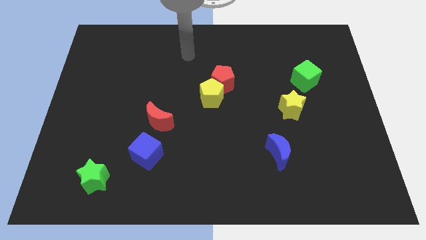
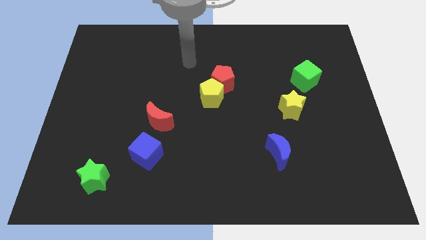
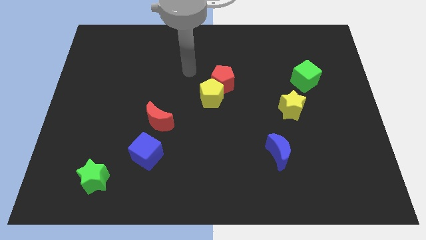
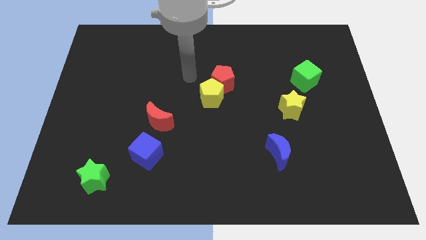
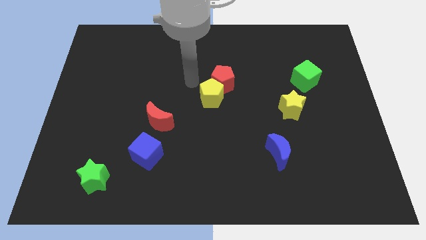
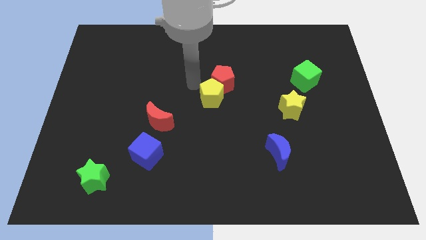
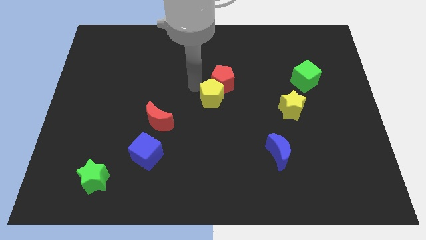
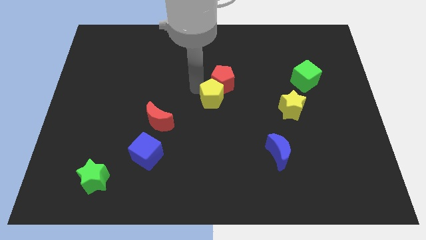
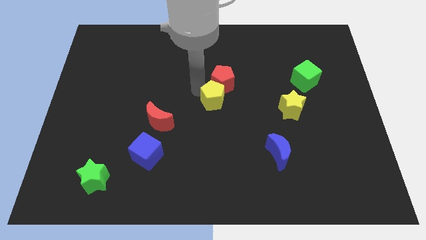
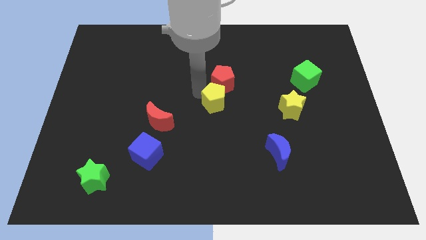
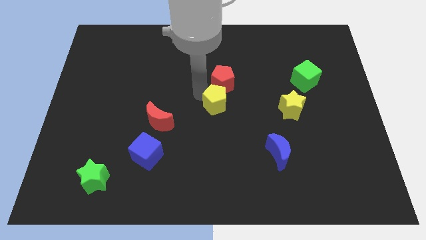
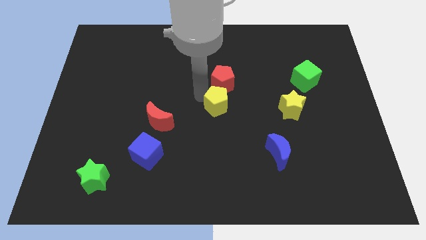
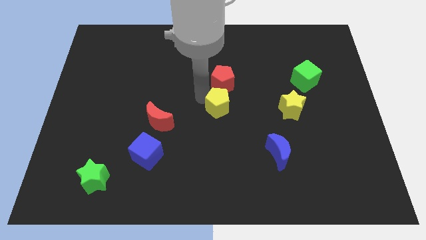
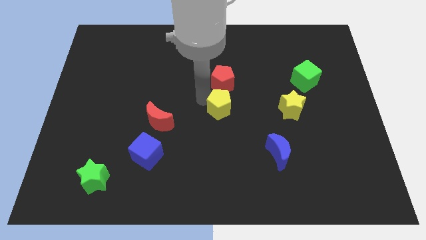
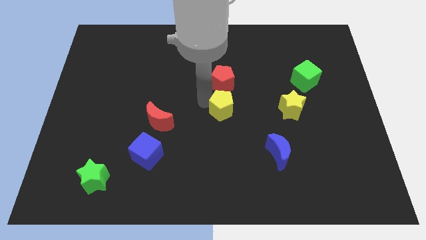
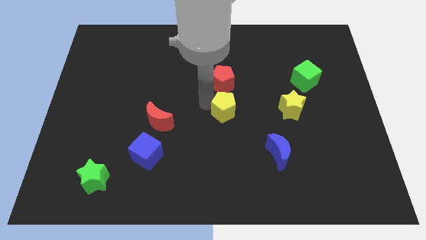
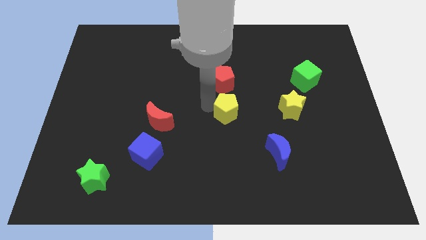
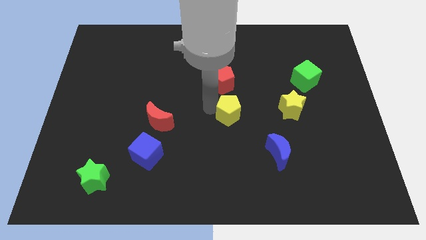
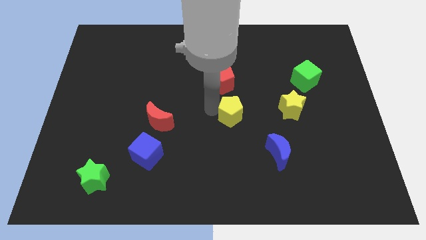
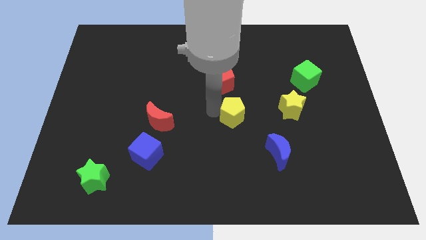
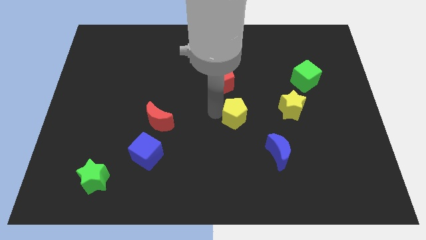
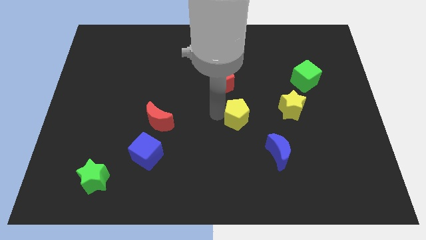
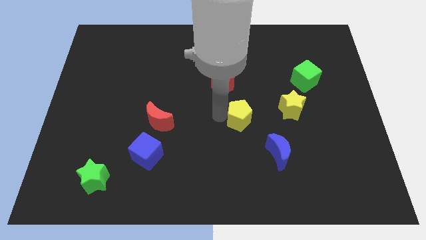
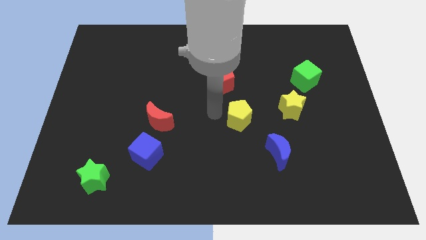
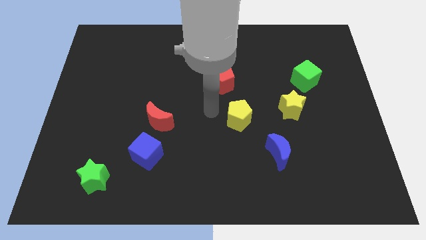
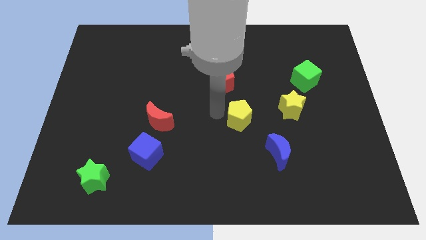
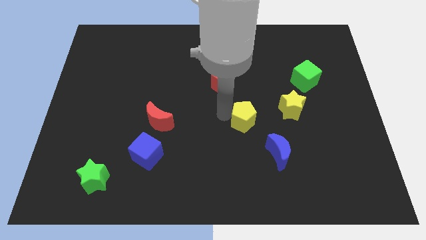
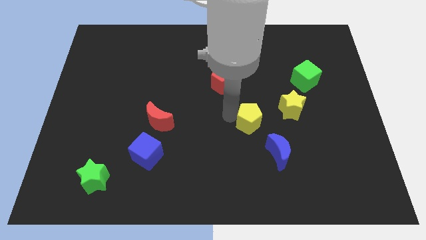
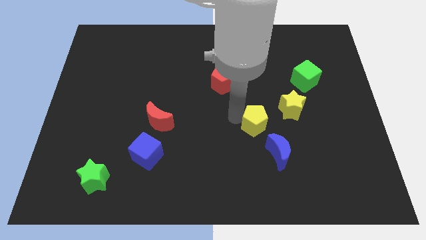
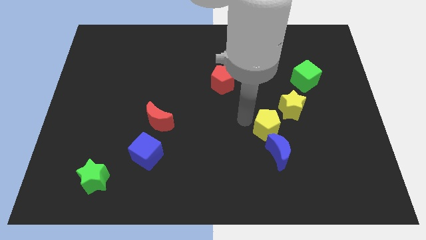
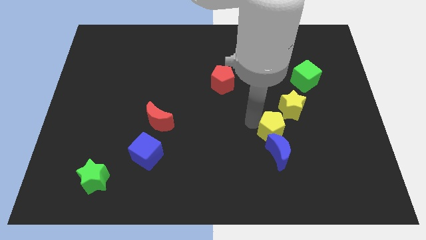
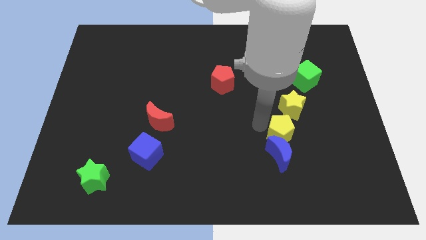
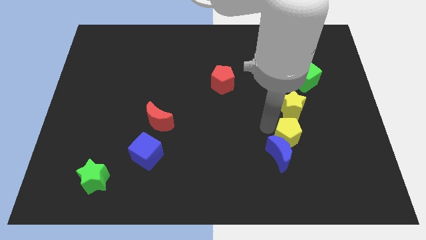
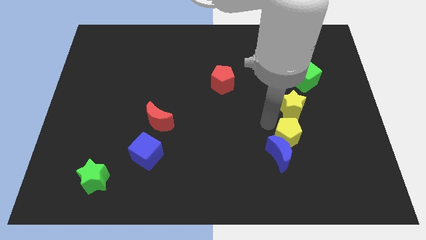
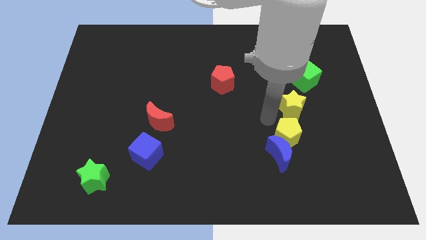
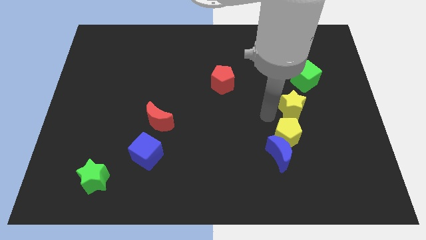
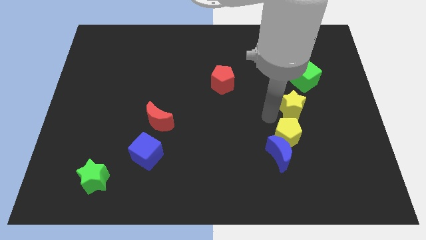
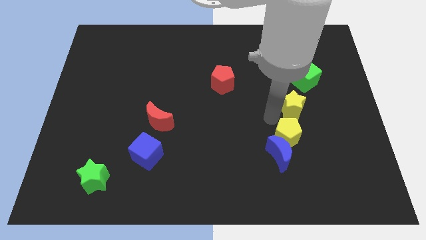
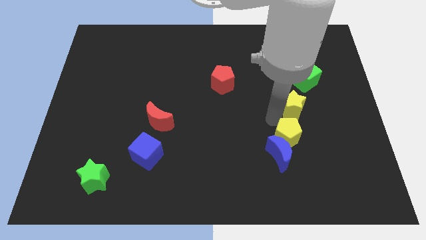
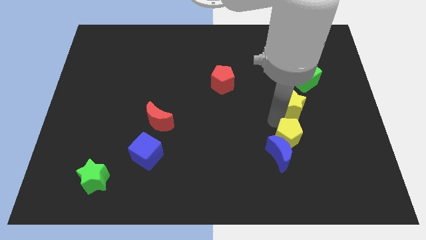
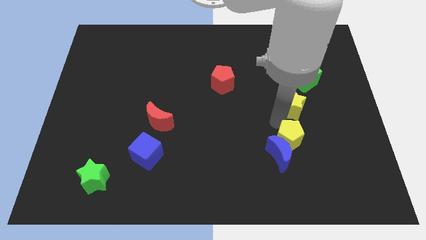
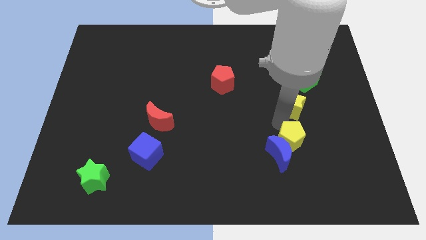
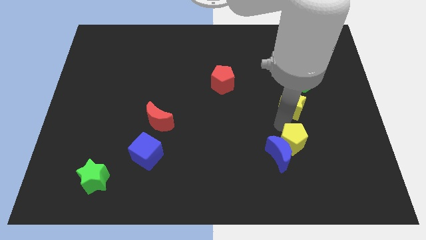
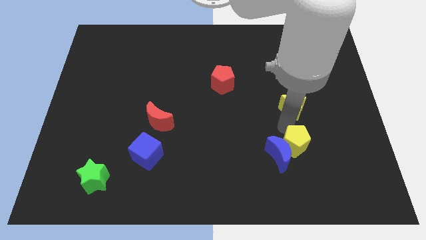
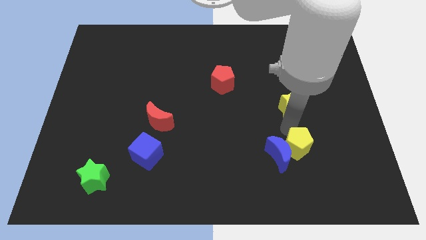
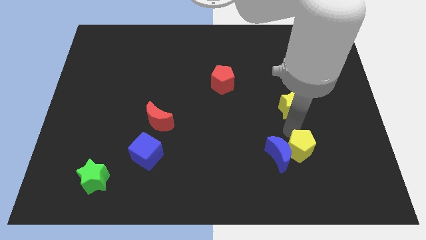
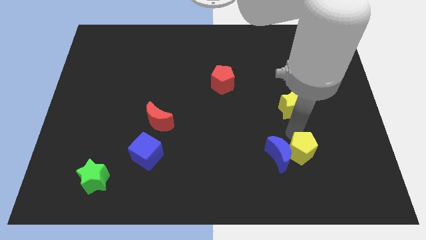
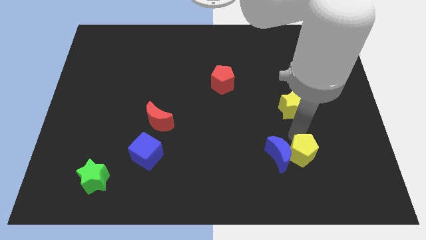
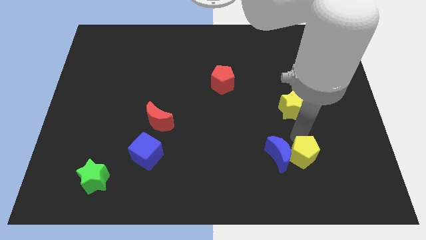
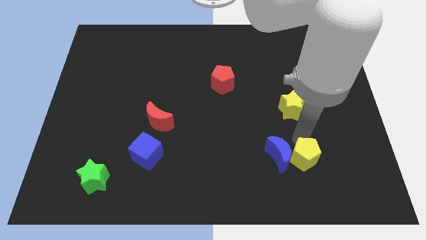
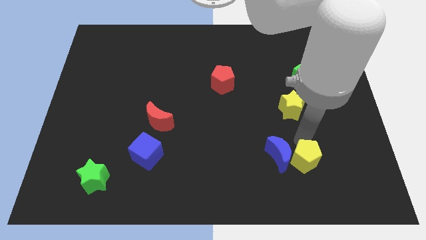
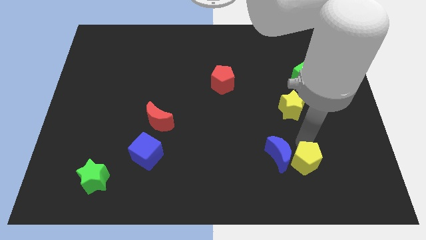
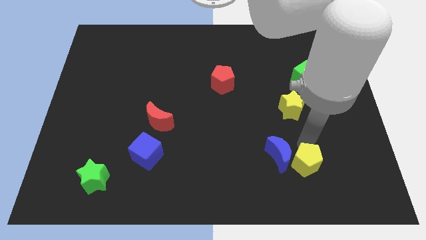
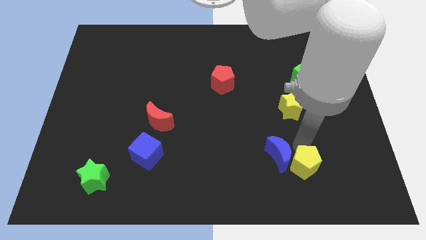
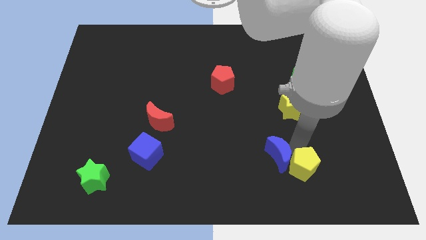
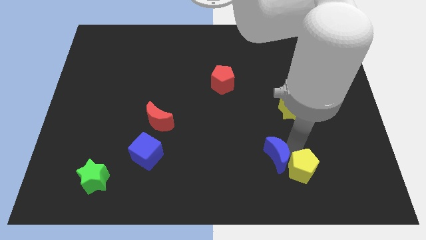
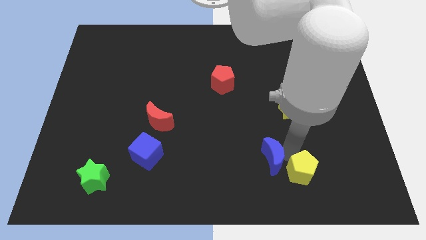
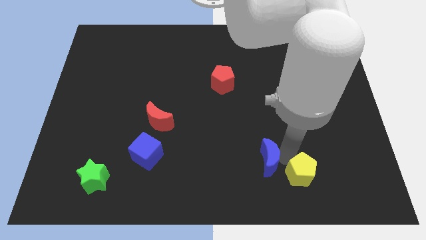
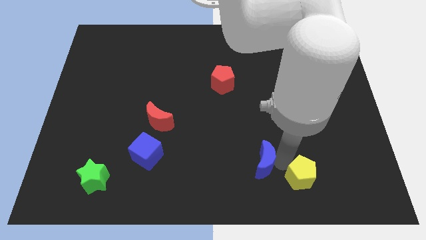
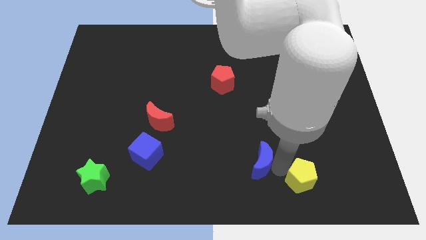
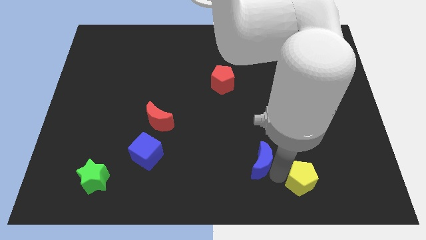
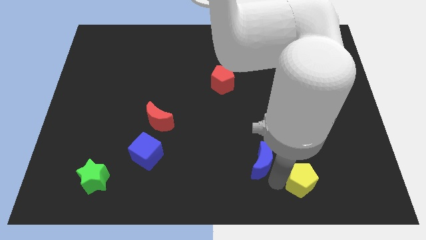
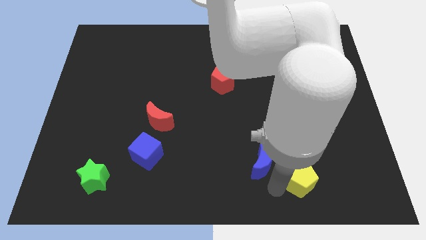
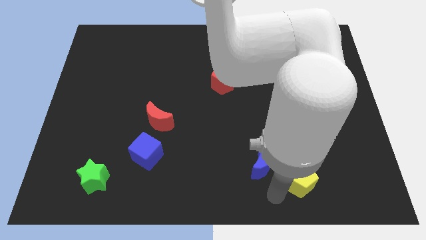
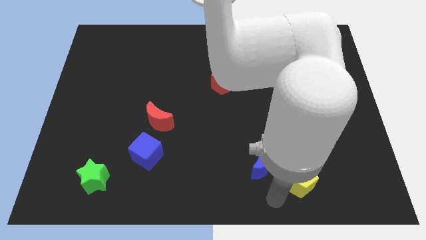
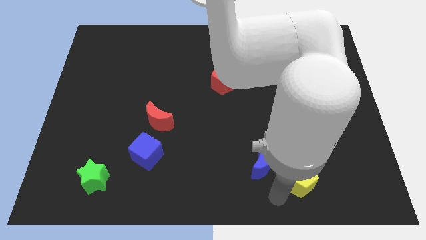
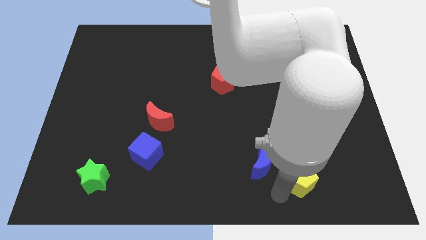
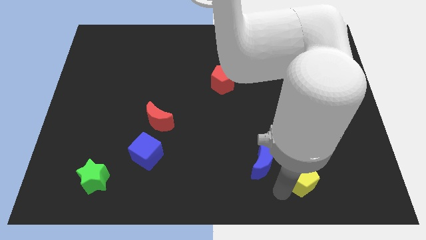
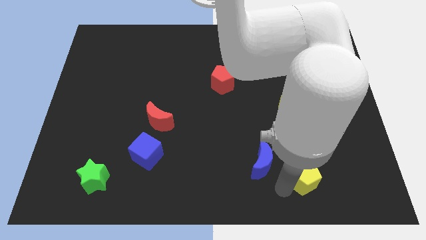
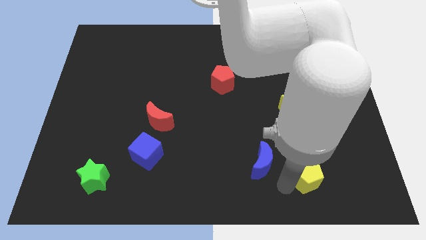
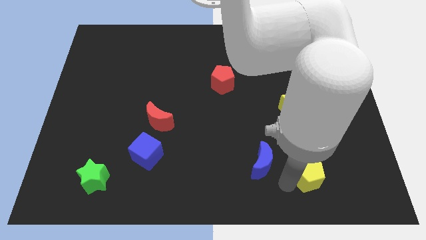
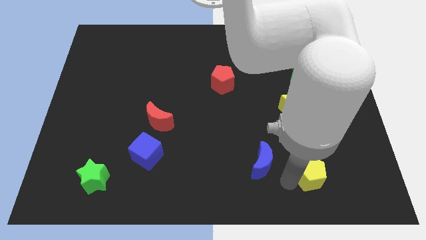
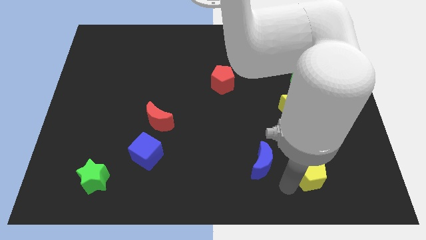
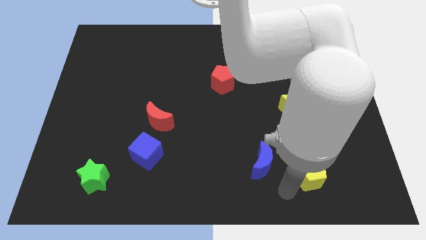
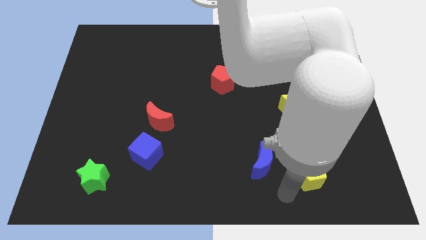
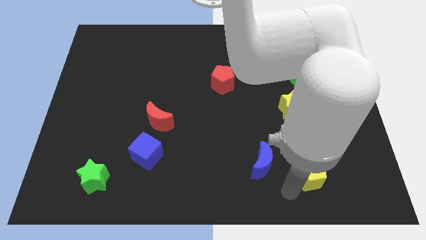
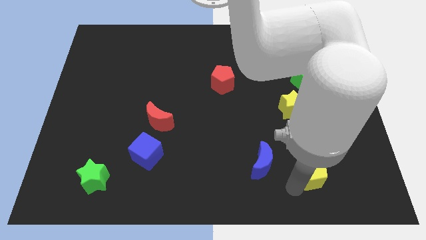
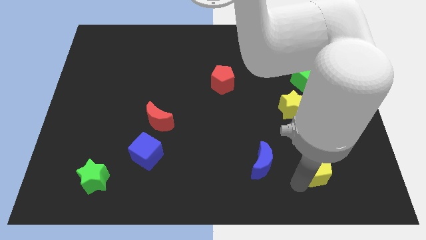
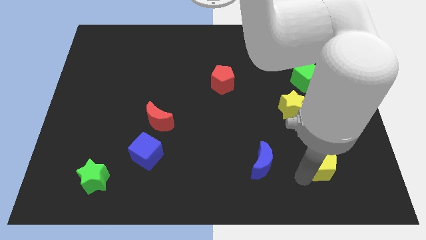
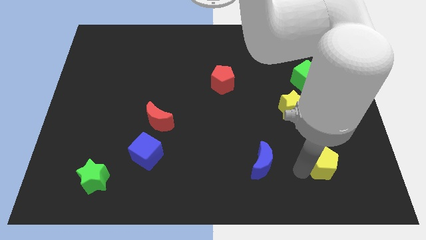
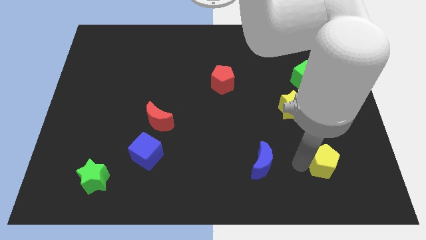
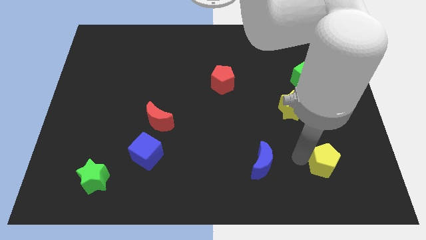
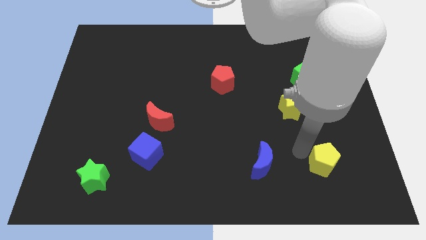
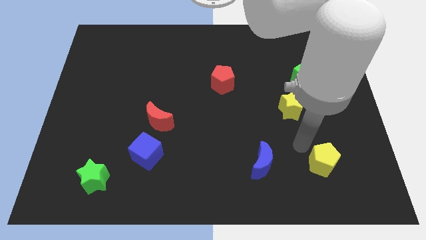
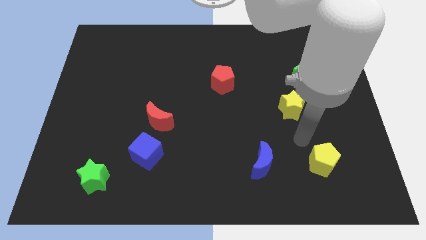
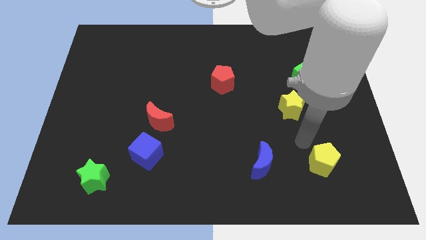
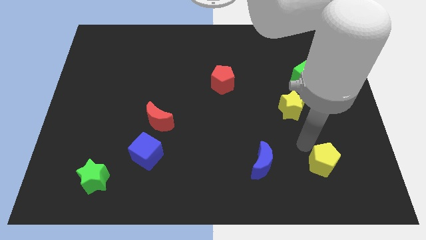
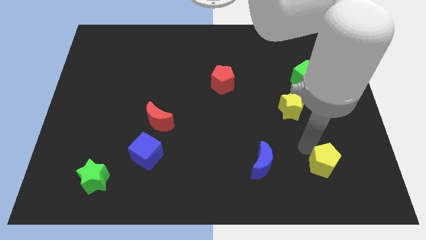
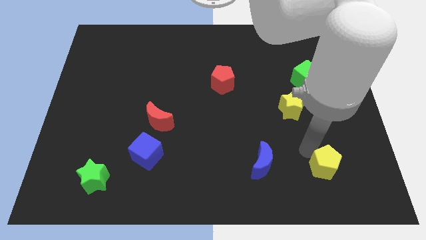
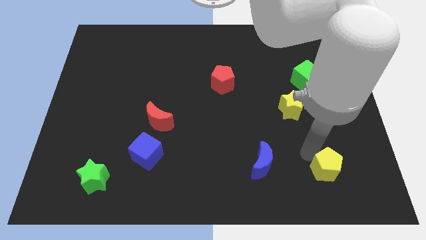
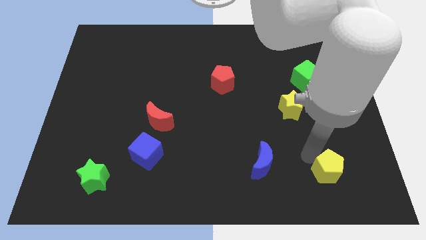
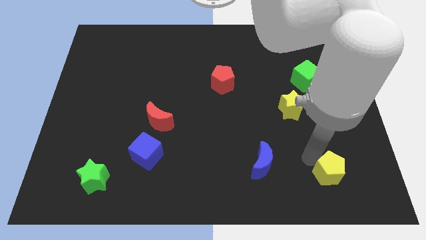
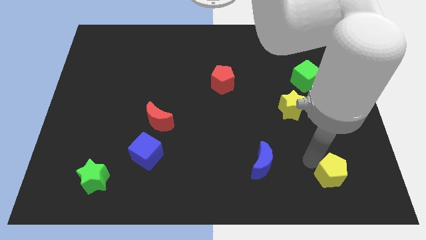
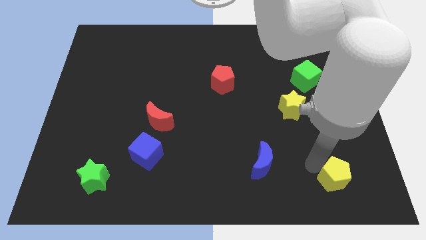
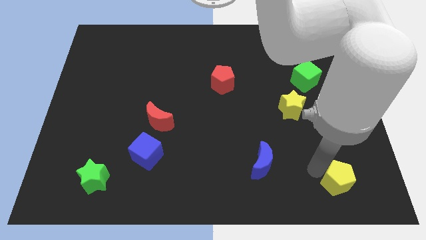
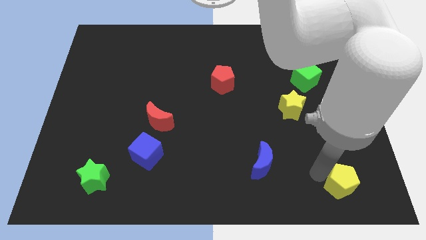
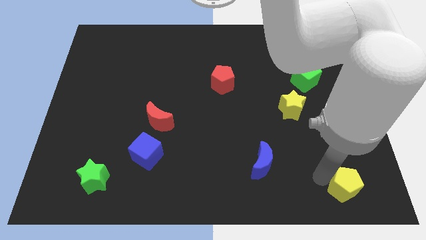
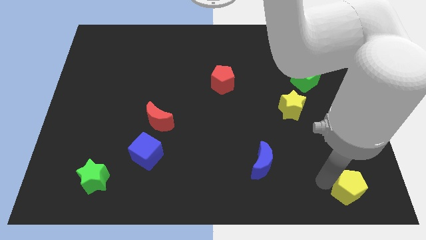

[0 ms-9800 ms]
move the yellow pentagon to the bottom right
